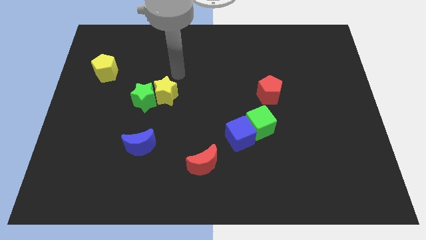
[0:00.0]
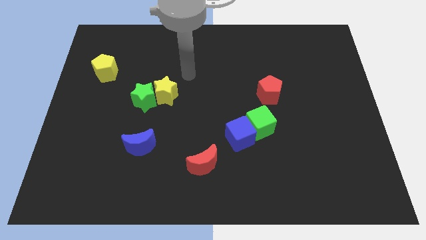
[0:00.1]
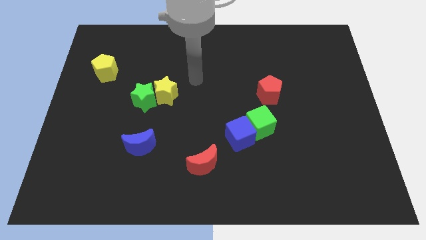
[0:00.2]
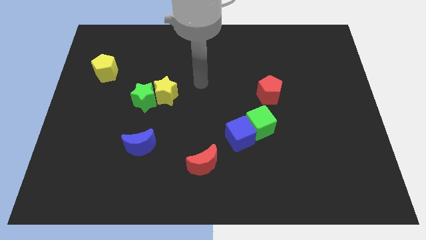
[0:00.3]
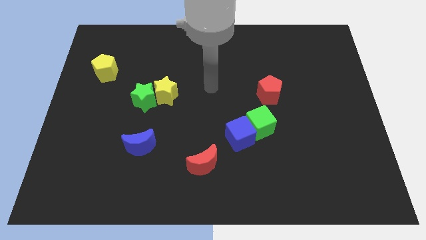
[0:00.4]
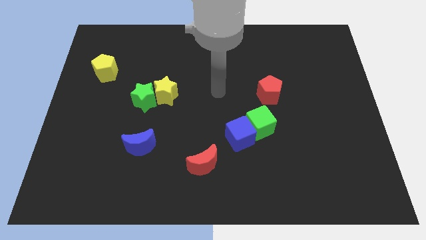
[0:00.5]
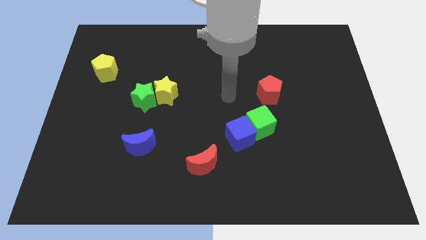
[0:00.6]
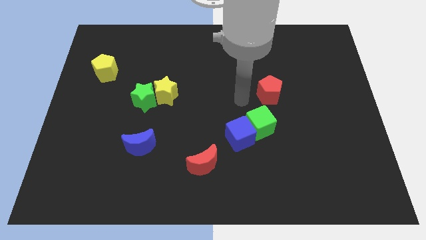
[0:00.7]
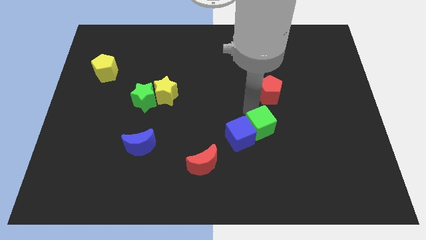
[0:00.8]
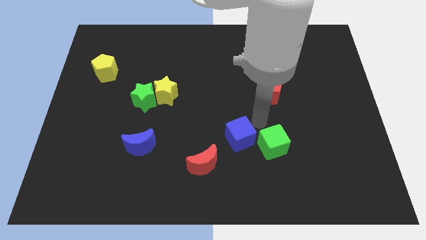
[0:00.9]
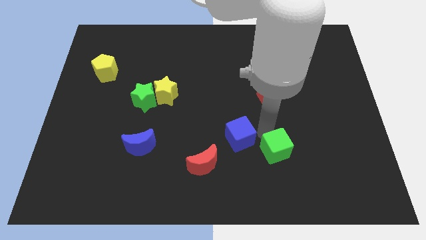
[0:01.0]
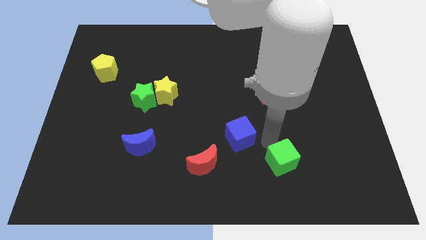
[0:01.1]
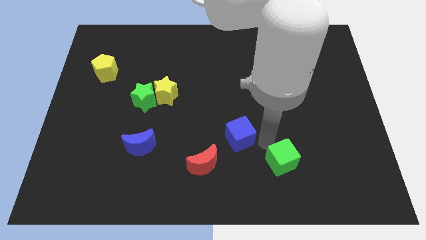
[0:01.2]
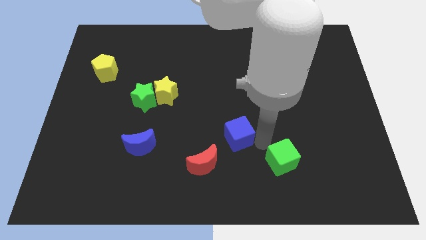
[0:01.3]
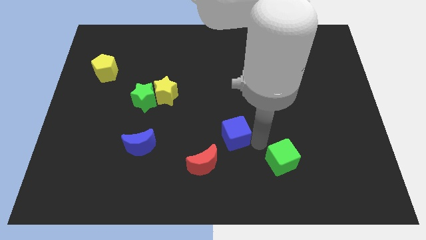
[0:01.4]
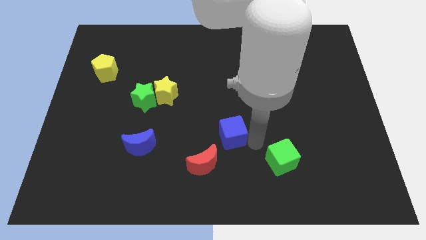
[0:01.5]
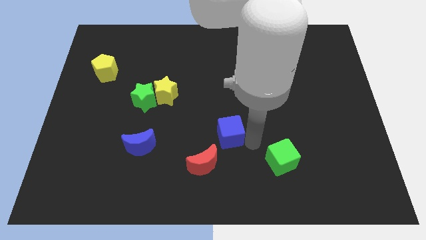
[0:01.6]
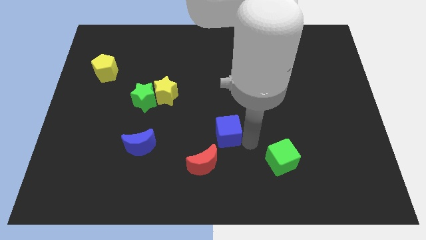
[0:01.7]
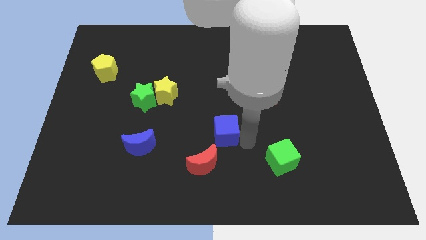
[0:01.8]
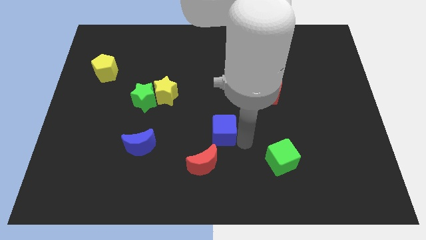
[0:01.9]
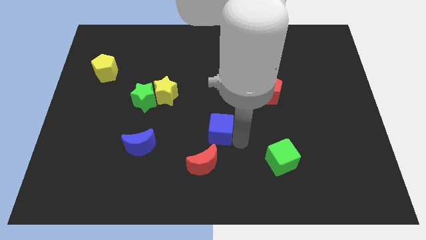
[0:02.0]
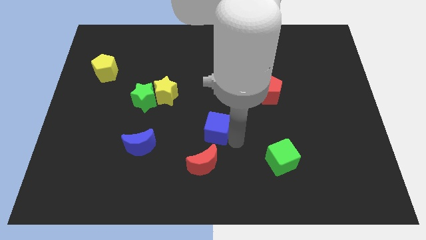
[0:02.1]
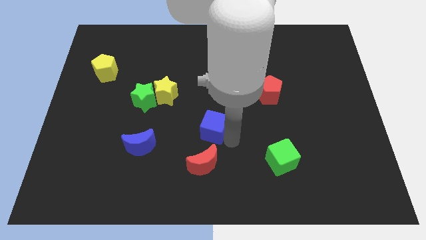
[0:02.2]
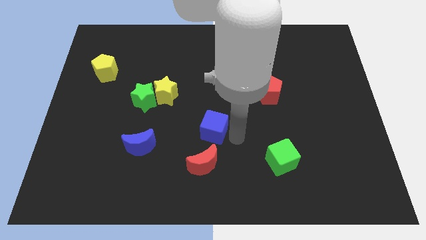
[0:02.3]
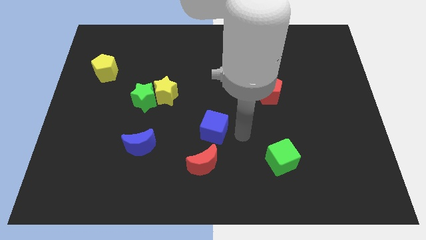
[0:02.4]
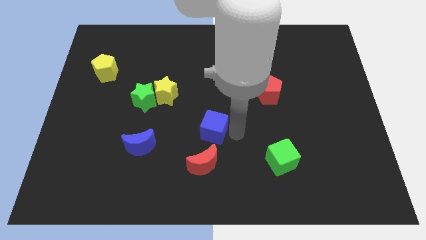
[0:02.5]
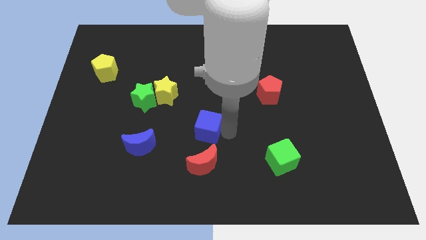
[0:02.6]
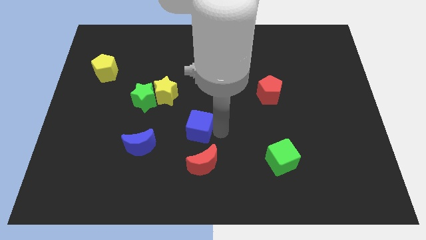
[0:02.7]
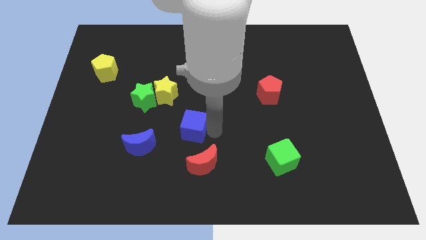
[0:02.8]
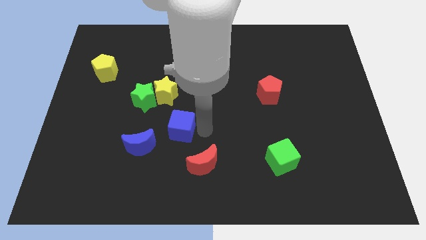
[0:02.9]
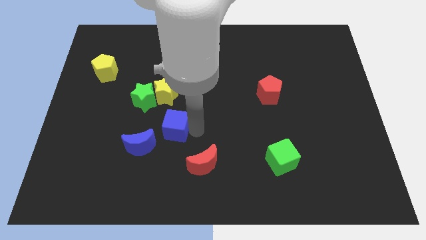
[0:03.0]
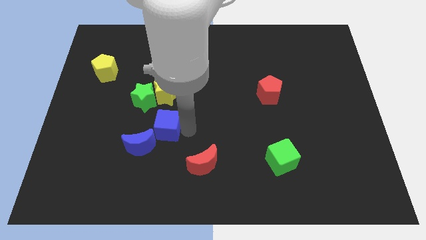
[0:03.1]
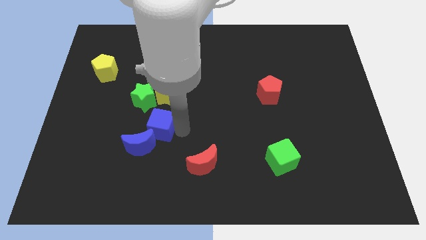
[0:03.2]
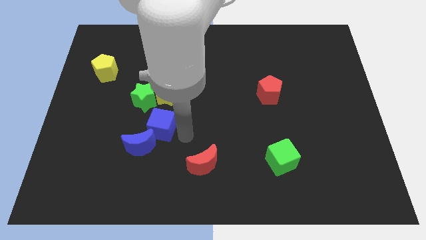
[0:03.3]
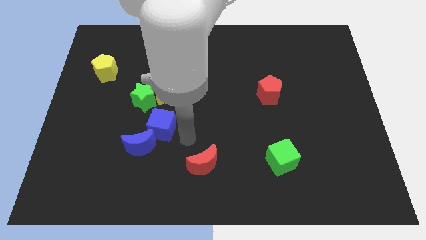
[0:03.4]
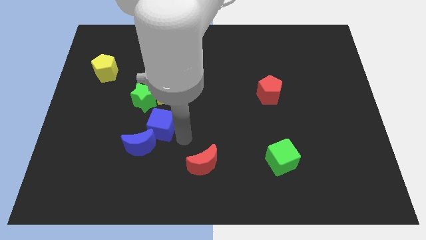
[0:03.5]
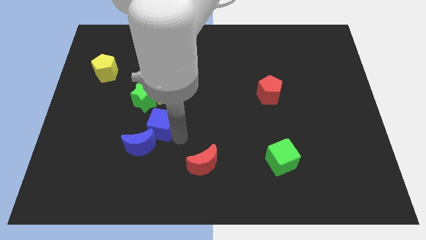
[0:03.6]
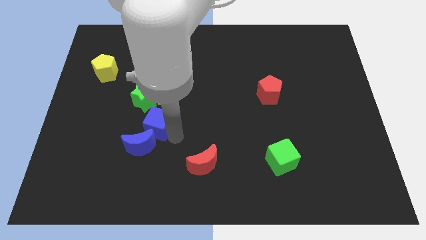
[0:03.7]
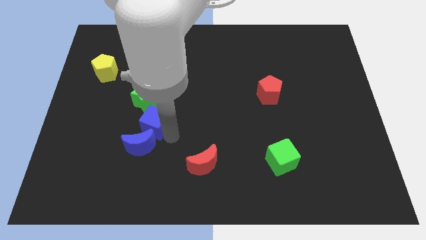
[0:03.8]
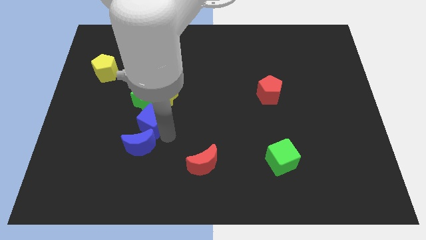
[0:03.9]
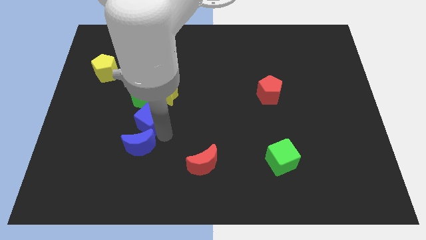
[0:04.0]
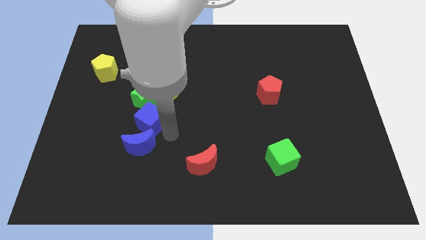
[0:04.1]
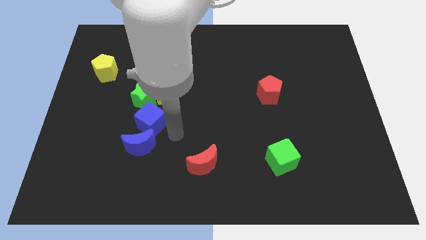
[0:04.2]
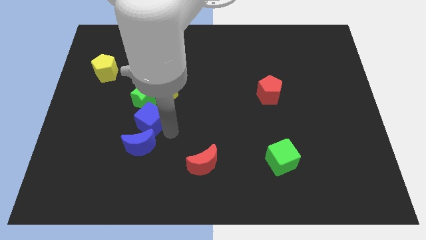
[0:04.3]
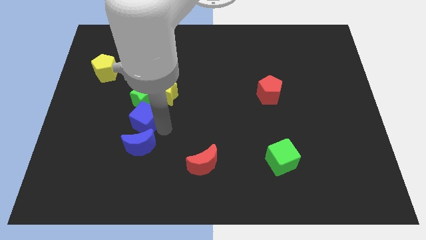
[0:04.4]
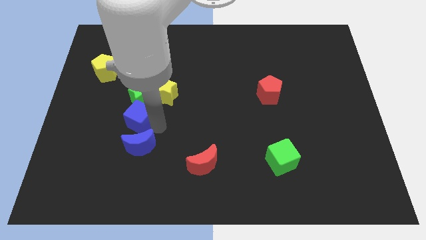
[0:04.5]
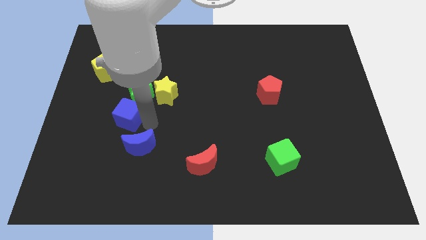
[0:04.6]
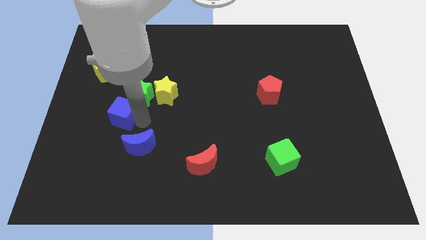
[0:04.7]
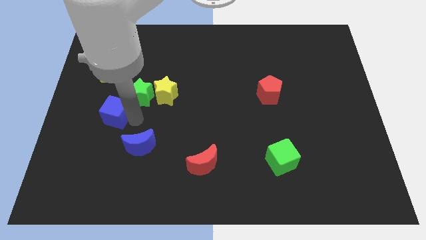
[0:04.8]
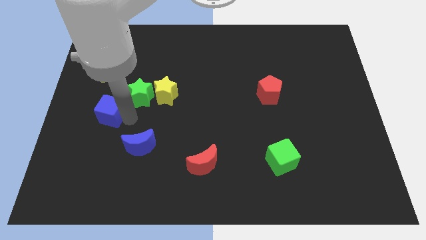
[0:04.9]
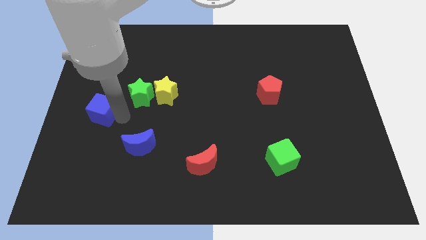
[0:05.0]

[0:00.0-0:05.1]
move the blue cube to the center left
